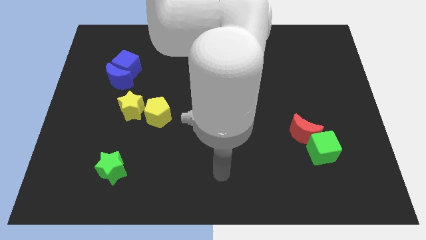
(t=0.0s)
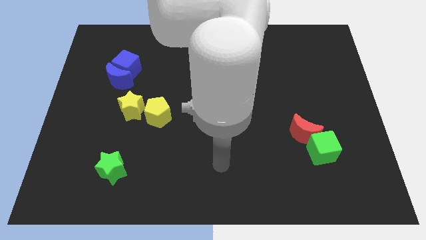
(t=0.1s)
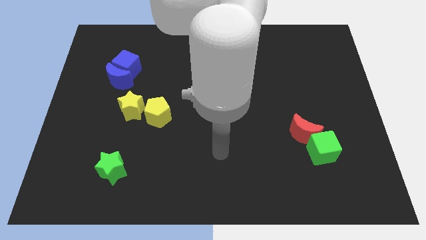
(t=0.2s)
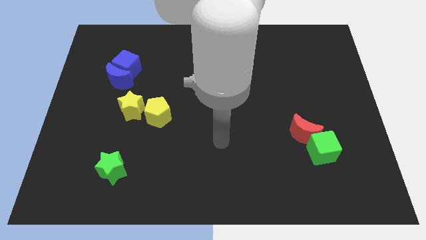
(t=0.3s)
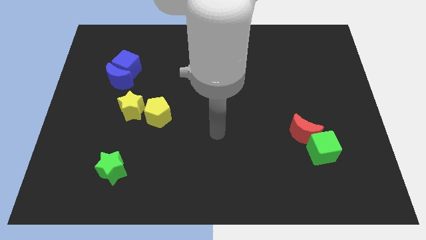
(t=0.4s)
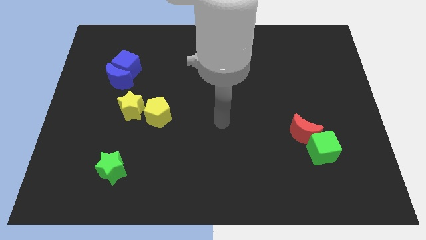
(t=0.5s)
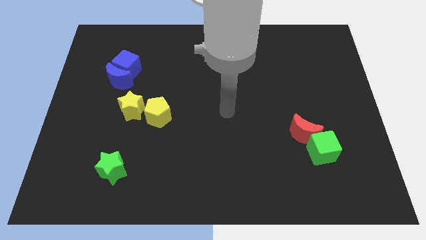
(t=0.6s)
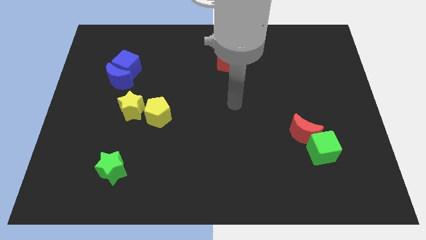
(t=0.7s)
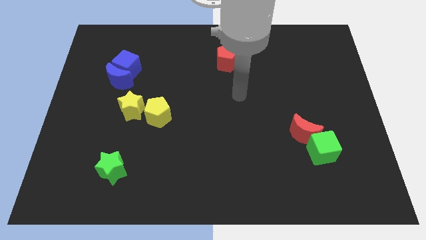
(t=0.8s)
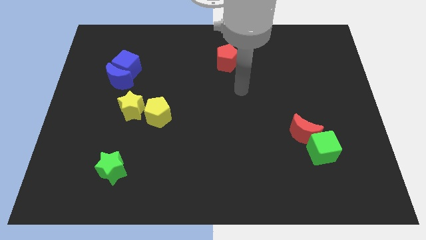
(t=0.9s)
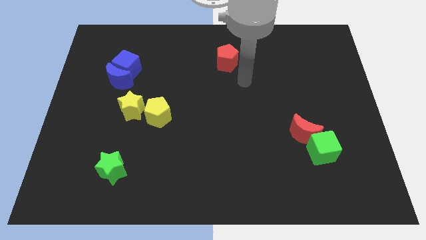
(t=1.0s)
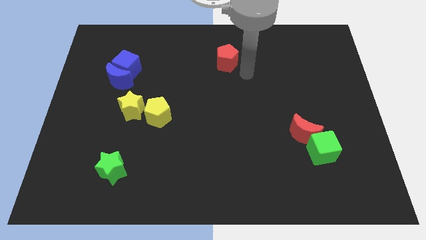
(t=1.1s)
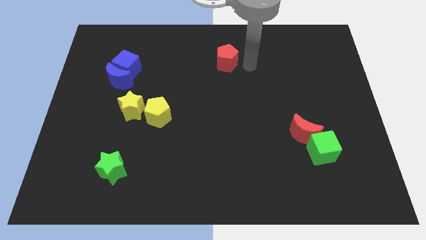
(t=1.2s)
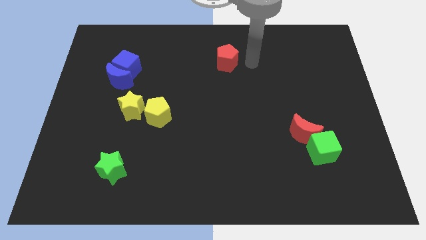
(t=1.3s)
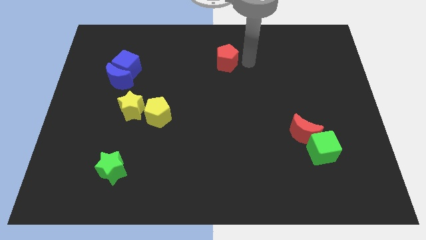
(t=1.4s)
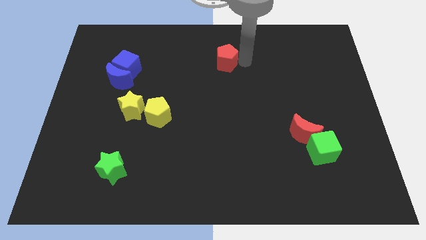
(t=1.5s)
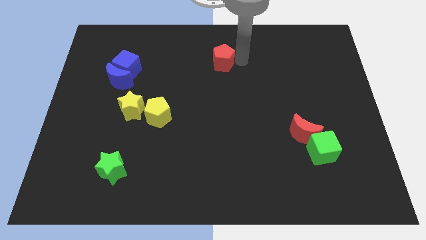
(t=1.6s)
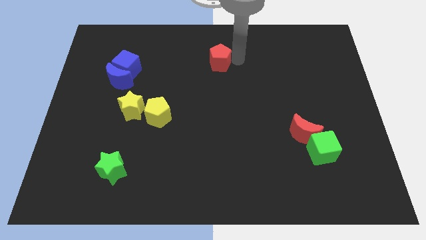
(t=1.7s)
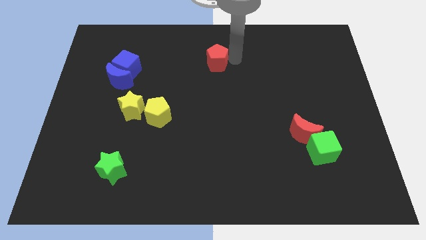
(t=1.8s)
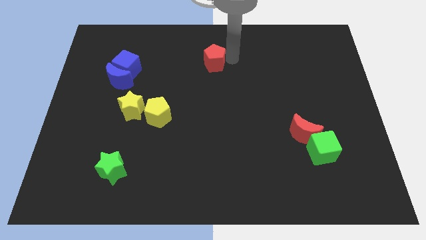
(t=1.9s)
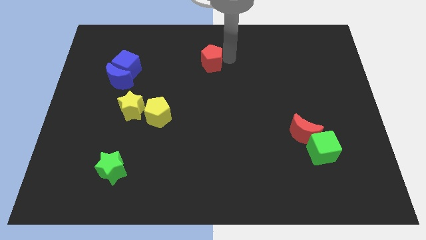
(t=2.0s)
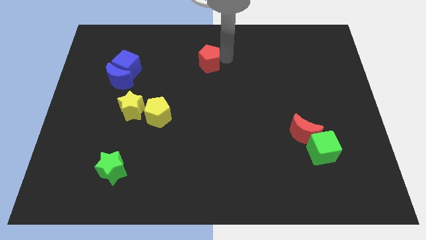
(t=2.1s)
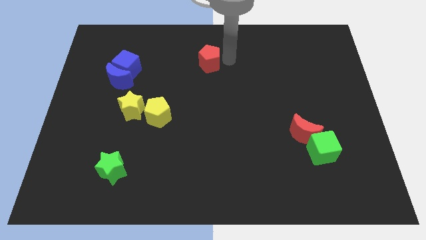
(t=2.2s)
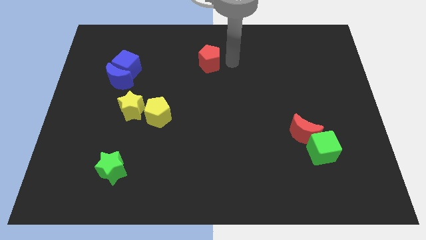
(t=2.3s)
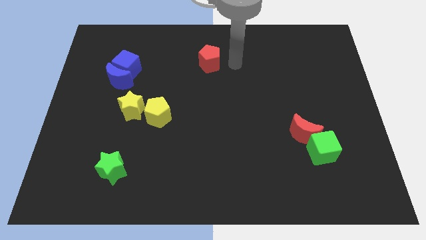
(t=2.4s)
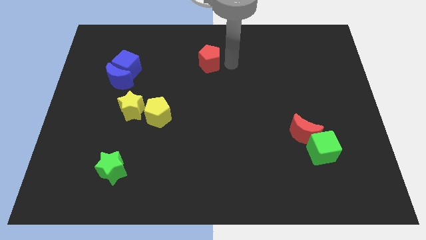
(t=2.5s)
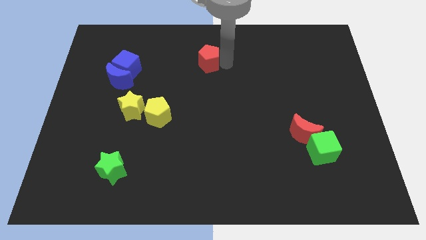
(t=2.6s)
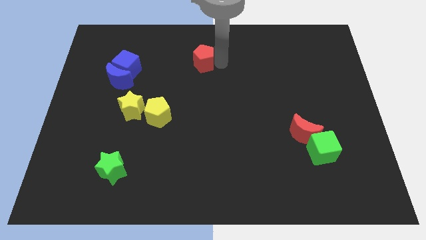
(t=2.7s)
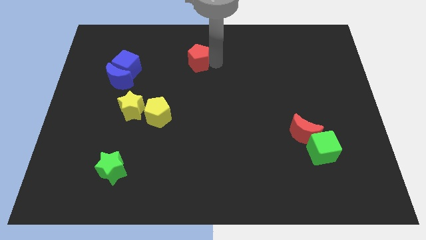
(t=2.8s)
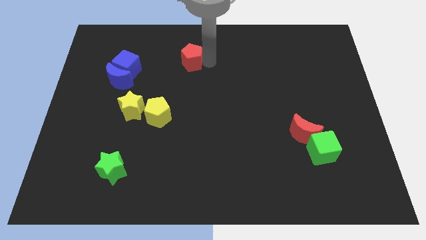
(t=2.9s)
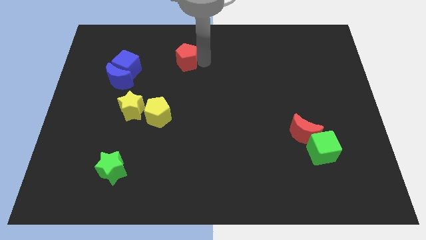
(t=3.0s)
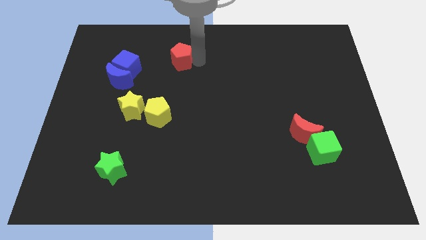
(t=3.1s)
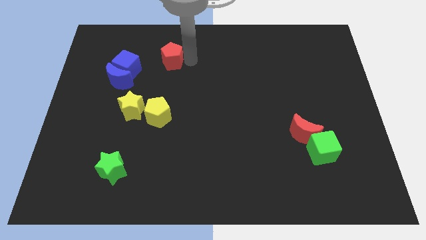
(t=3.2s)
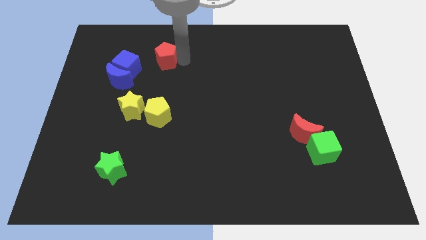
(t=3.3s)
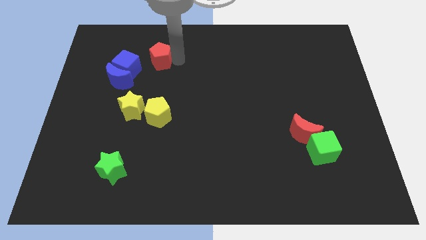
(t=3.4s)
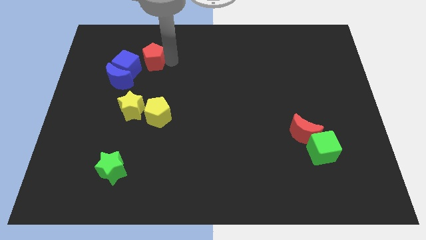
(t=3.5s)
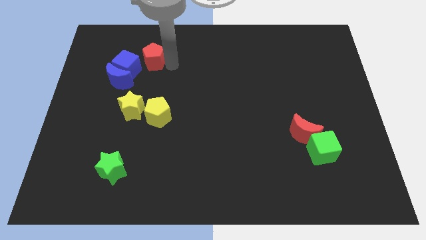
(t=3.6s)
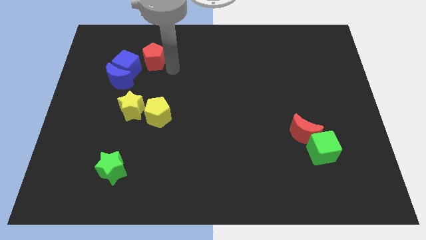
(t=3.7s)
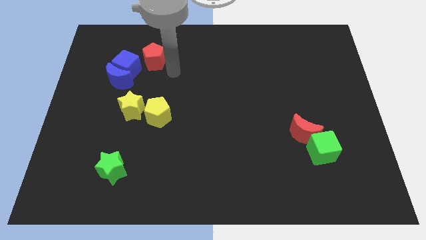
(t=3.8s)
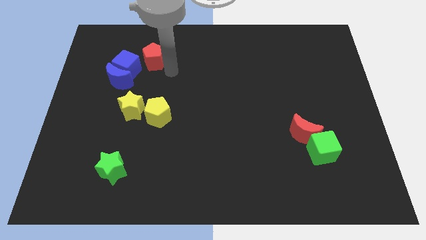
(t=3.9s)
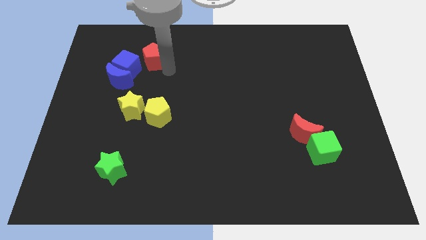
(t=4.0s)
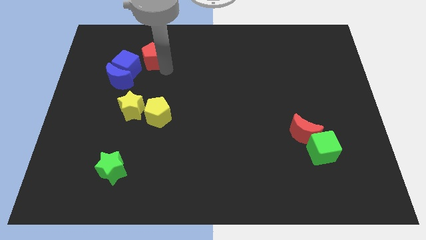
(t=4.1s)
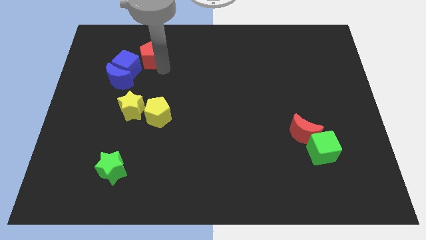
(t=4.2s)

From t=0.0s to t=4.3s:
move the red pentagon to the left

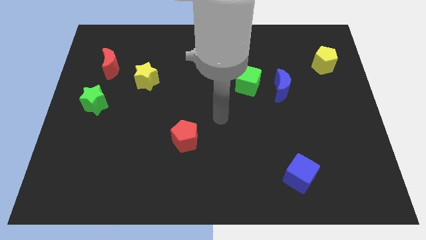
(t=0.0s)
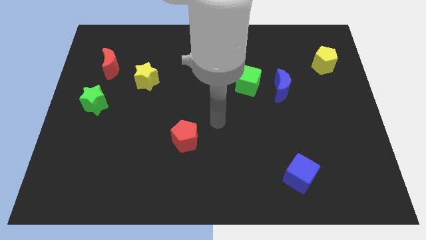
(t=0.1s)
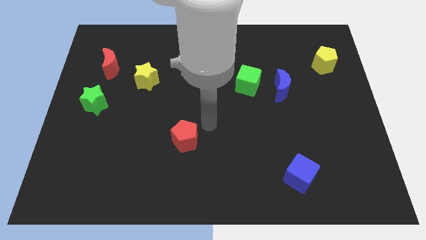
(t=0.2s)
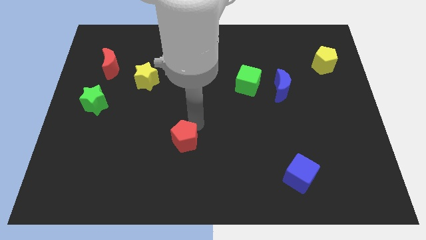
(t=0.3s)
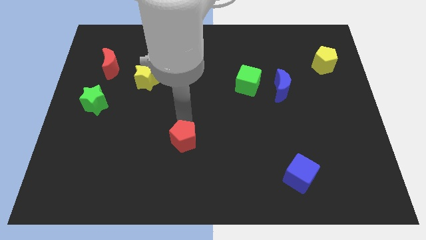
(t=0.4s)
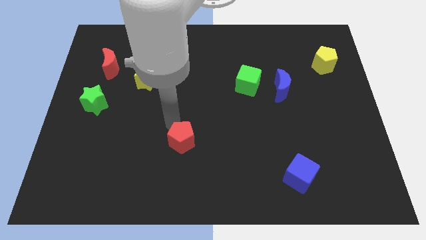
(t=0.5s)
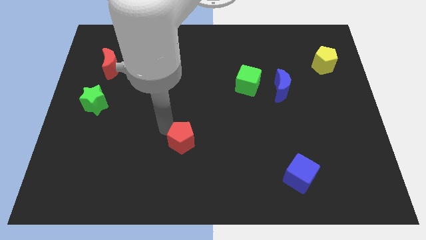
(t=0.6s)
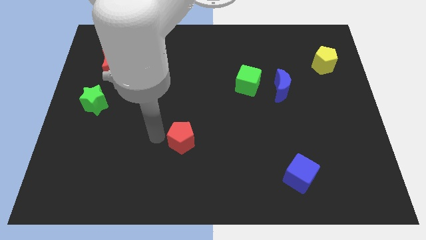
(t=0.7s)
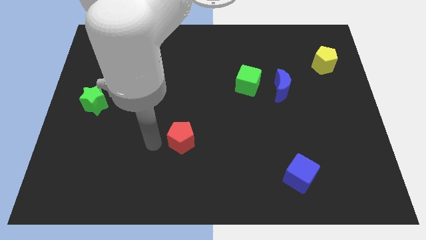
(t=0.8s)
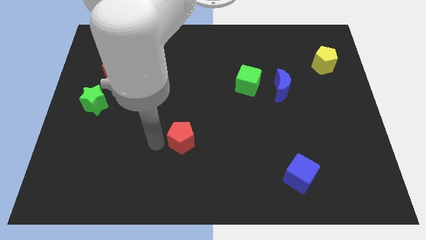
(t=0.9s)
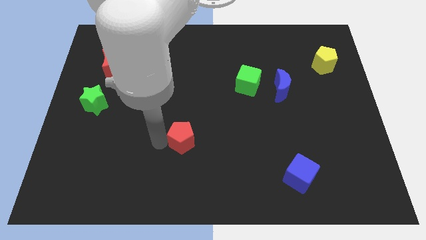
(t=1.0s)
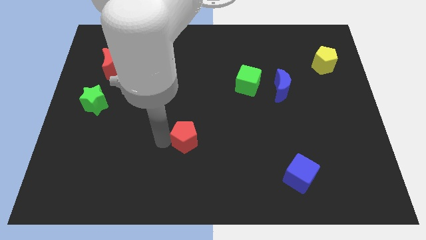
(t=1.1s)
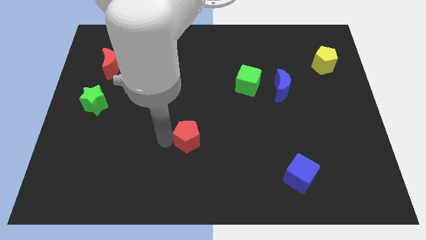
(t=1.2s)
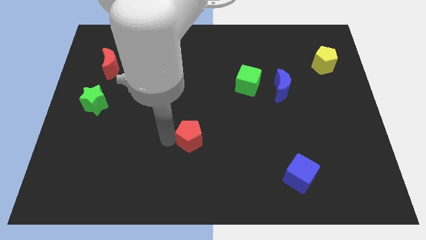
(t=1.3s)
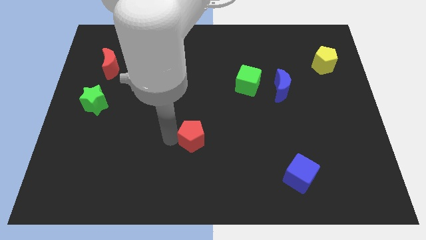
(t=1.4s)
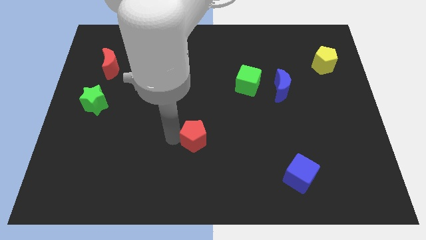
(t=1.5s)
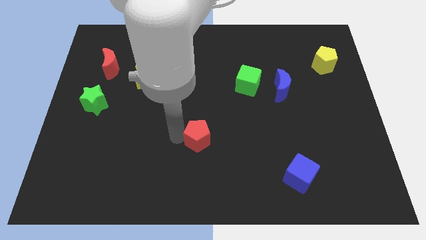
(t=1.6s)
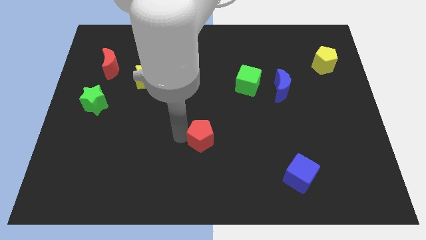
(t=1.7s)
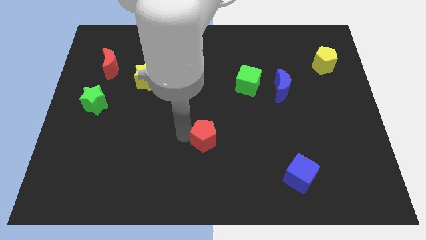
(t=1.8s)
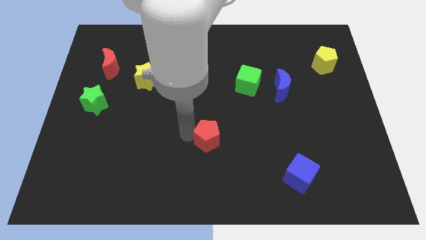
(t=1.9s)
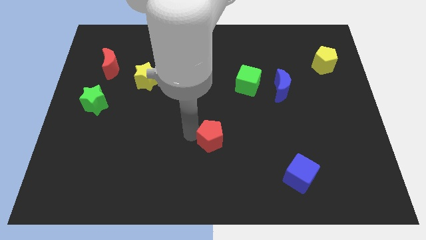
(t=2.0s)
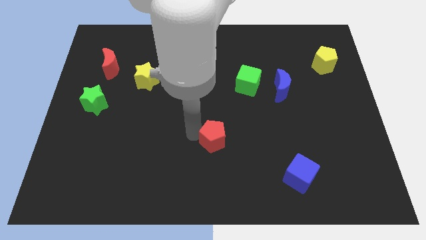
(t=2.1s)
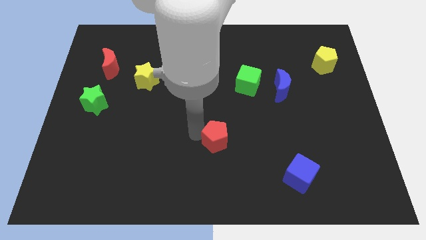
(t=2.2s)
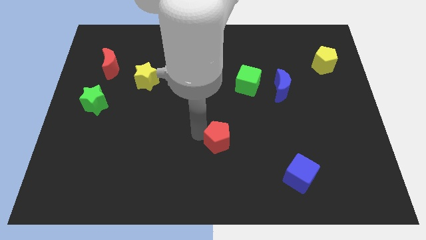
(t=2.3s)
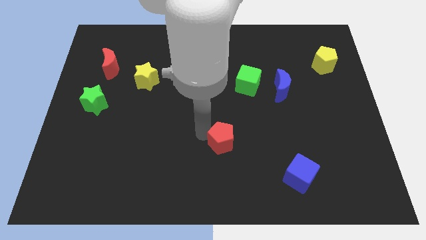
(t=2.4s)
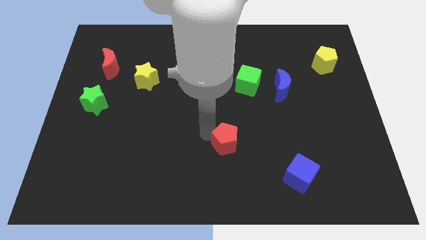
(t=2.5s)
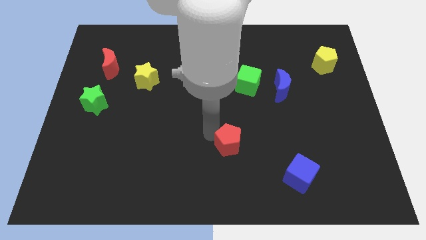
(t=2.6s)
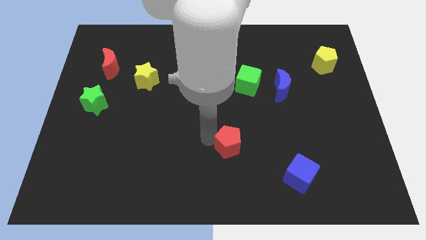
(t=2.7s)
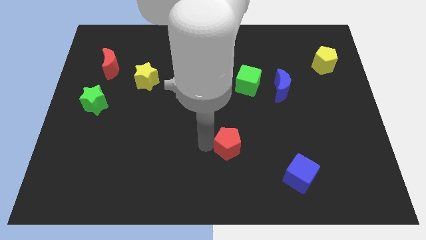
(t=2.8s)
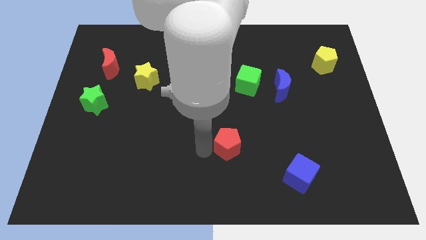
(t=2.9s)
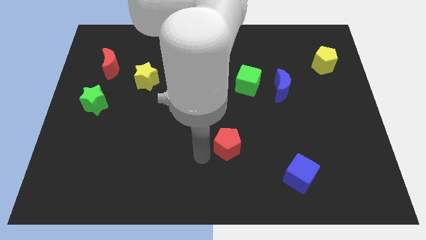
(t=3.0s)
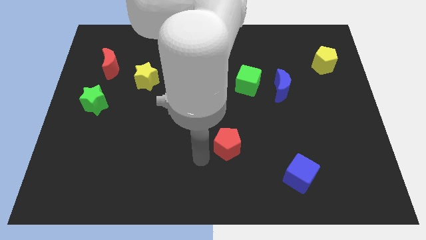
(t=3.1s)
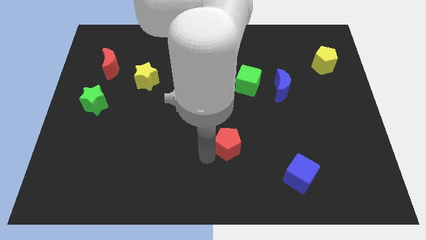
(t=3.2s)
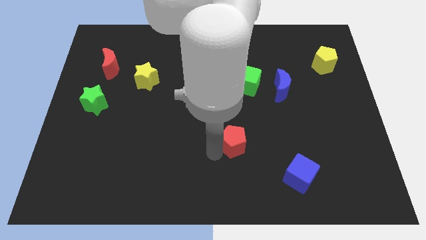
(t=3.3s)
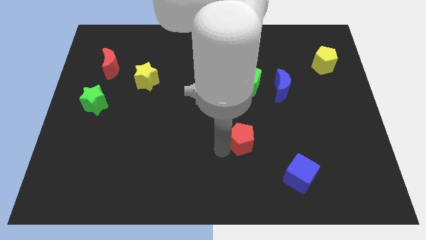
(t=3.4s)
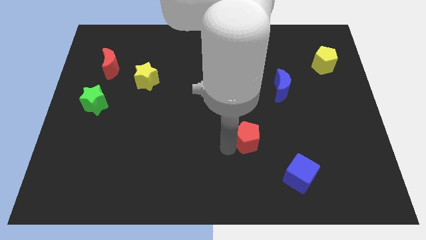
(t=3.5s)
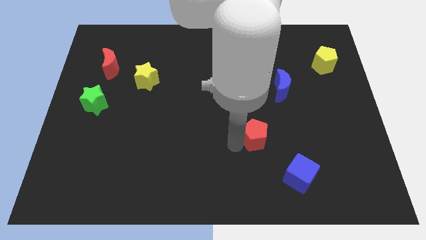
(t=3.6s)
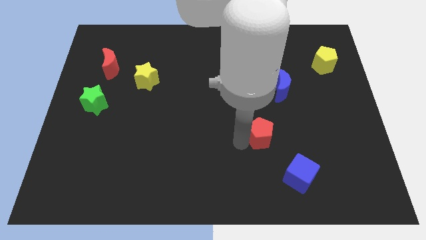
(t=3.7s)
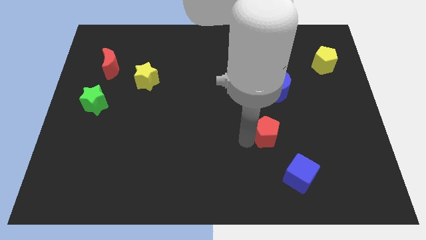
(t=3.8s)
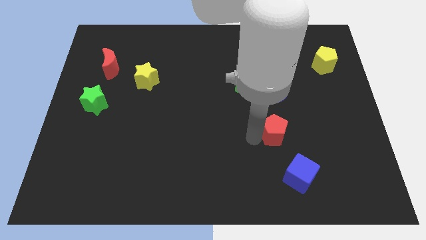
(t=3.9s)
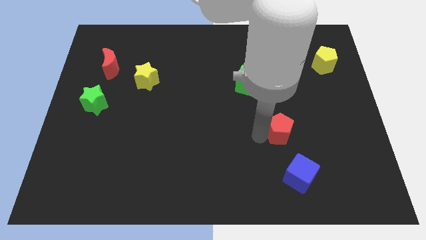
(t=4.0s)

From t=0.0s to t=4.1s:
slide the red pentagon right
